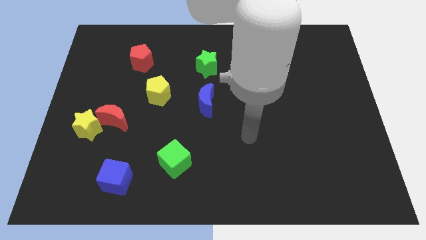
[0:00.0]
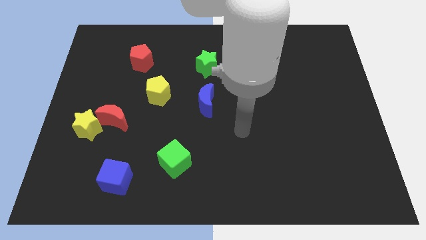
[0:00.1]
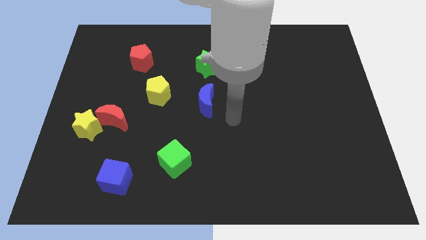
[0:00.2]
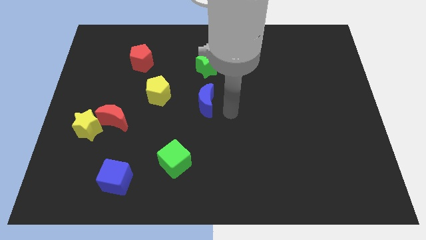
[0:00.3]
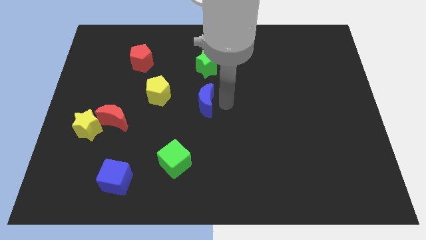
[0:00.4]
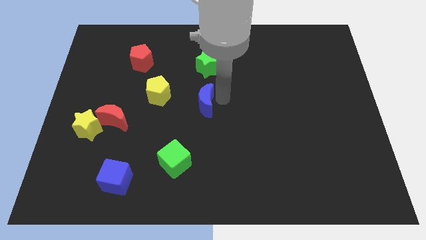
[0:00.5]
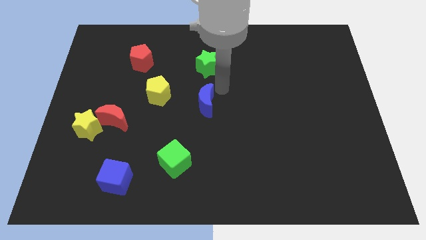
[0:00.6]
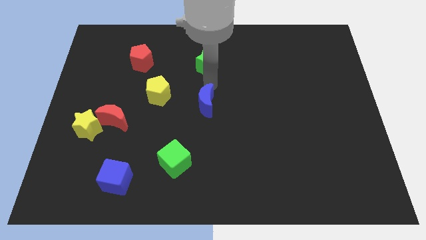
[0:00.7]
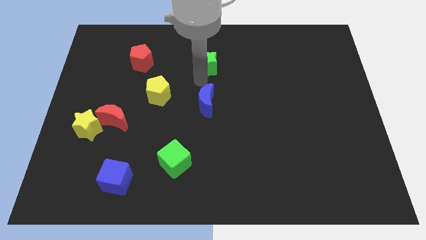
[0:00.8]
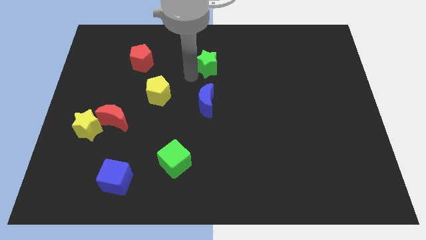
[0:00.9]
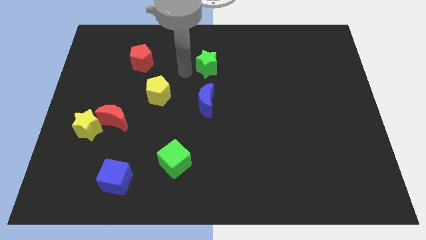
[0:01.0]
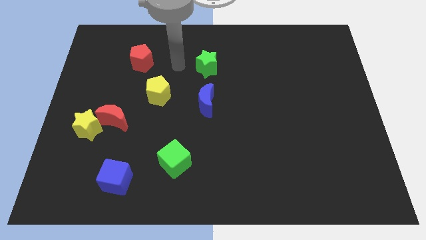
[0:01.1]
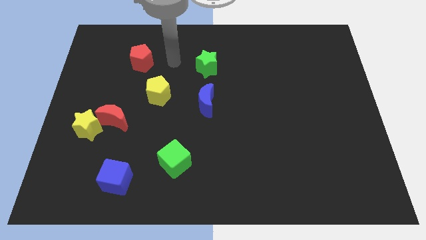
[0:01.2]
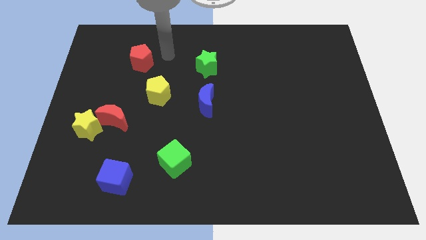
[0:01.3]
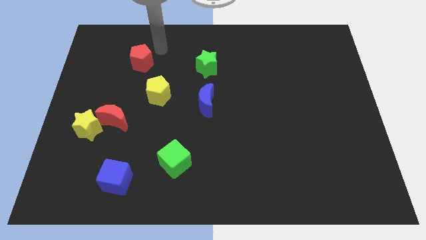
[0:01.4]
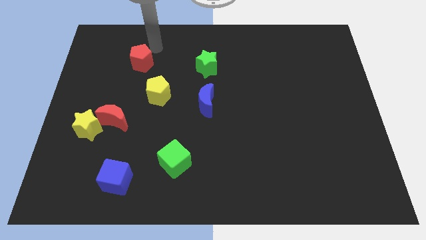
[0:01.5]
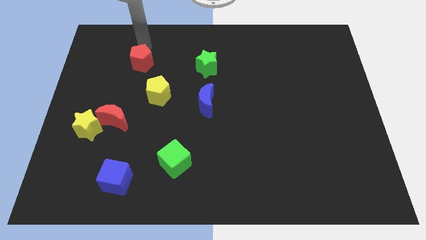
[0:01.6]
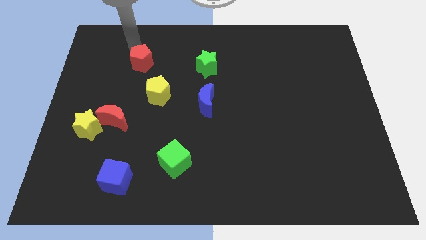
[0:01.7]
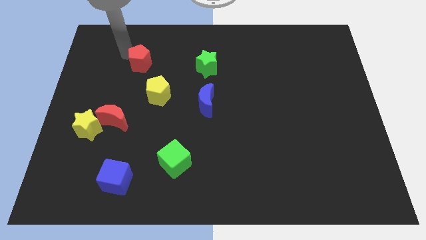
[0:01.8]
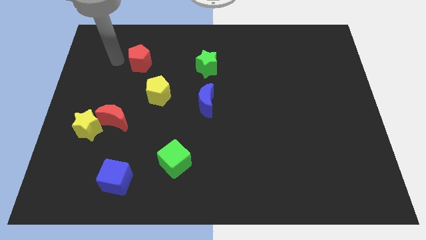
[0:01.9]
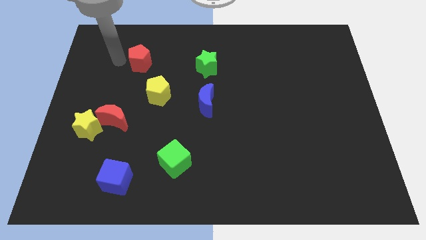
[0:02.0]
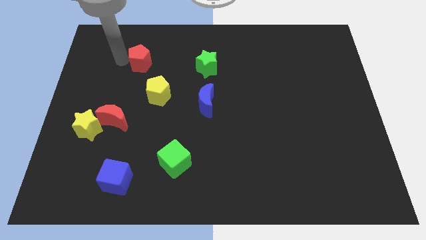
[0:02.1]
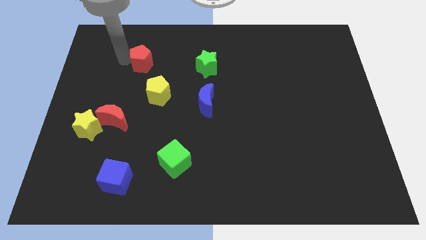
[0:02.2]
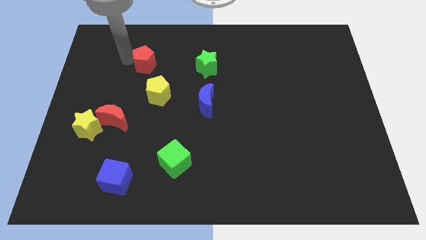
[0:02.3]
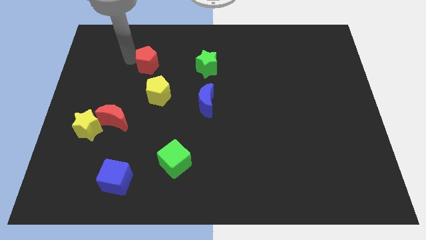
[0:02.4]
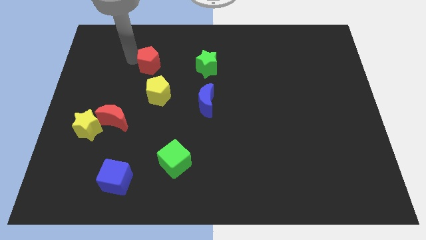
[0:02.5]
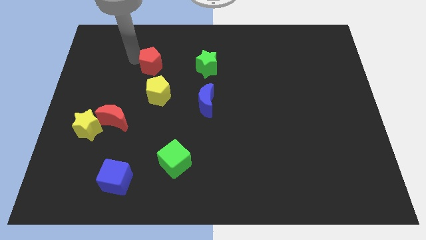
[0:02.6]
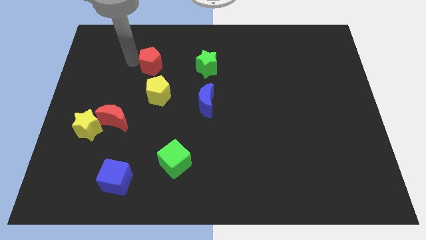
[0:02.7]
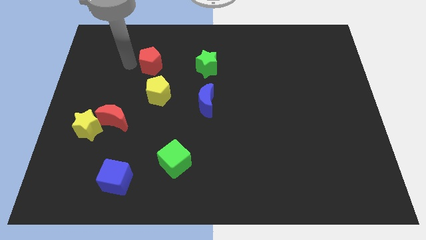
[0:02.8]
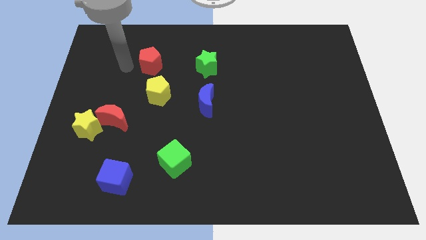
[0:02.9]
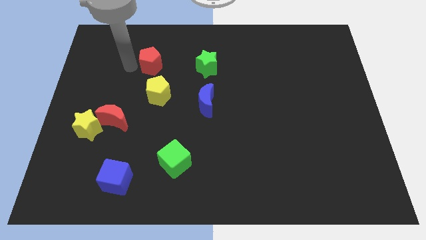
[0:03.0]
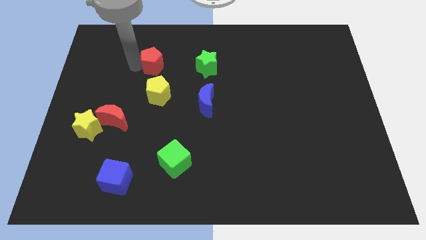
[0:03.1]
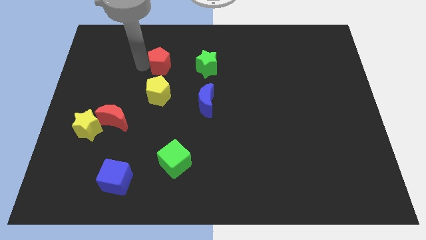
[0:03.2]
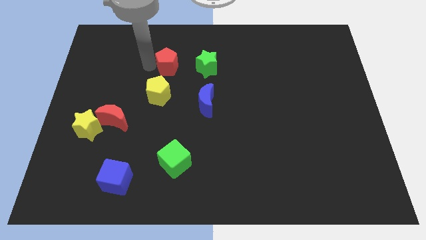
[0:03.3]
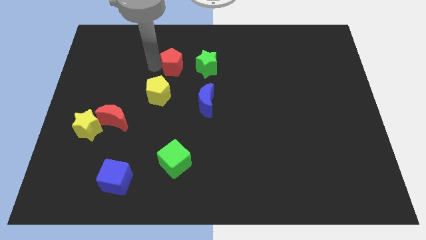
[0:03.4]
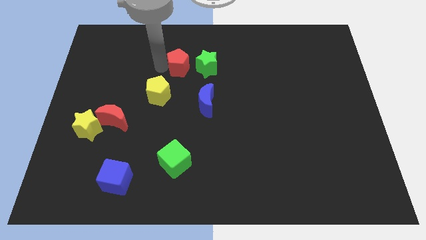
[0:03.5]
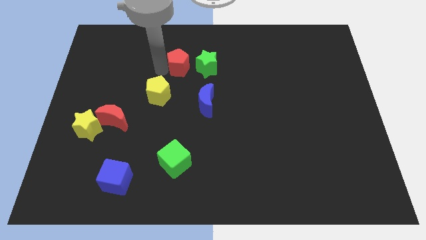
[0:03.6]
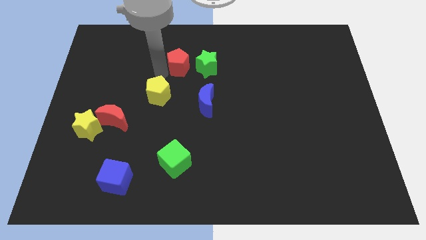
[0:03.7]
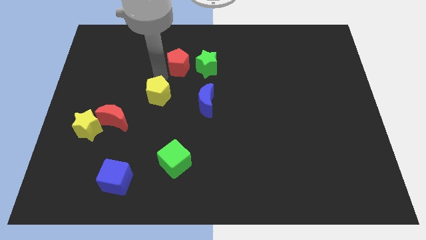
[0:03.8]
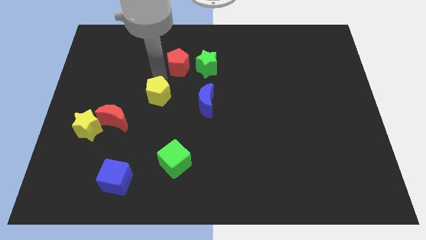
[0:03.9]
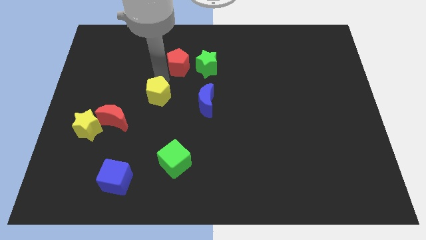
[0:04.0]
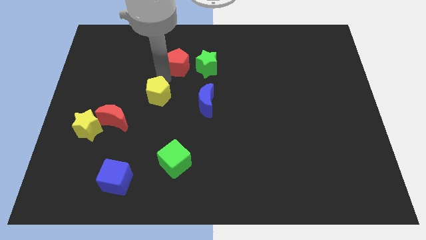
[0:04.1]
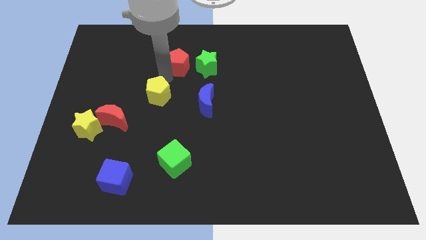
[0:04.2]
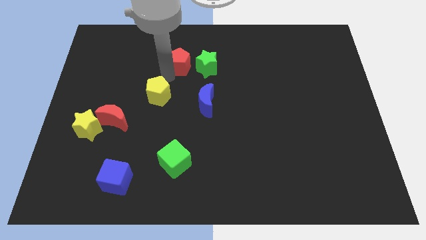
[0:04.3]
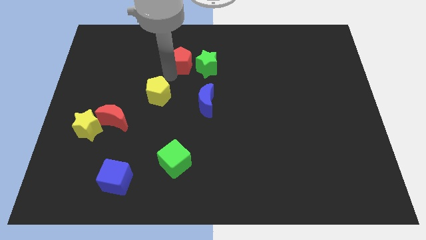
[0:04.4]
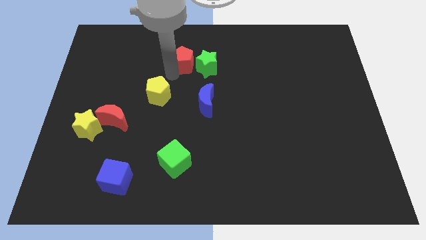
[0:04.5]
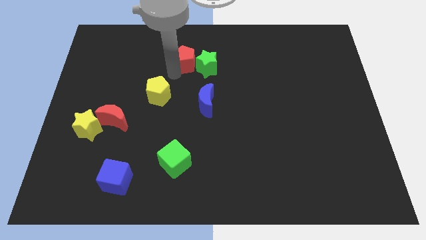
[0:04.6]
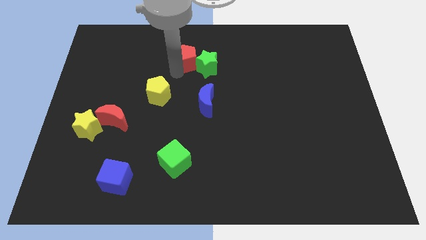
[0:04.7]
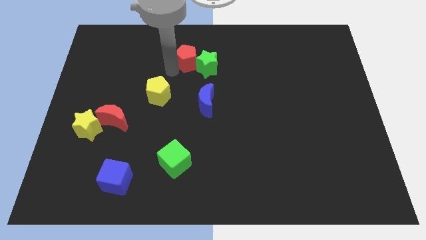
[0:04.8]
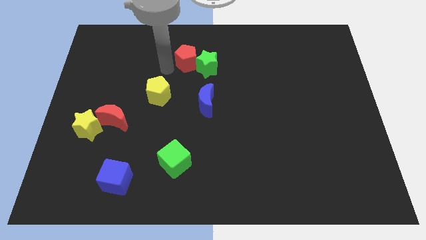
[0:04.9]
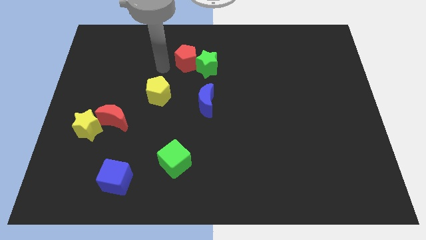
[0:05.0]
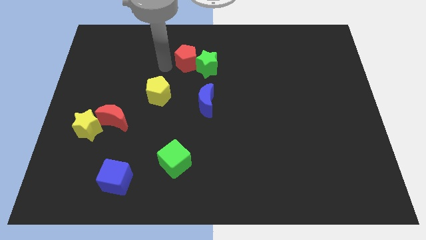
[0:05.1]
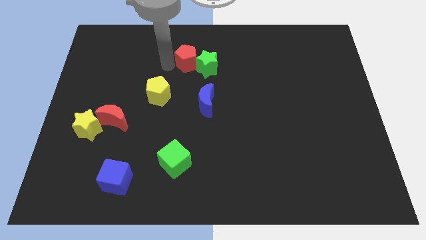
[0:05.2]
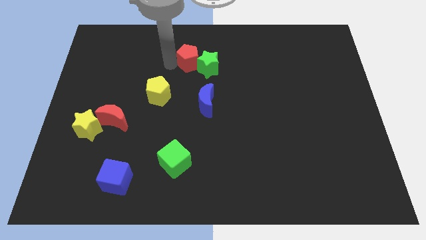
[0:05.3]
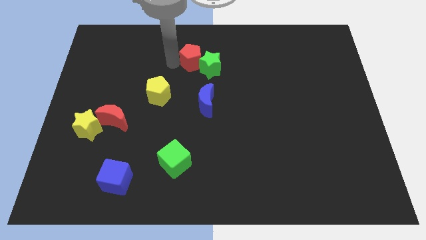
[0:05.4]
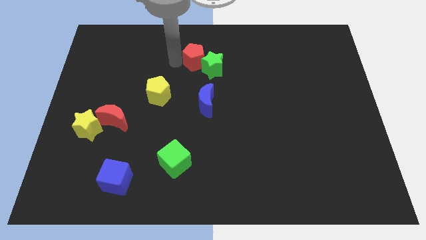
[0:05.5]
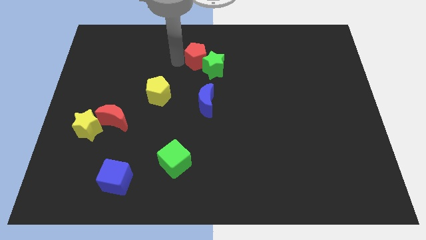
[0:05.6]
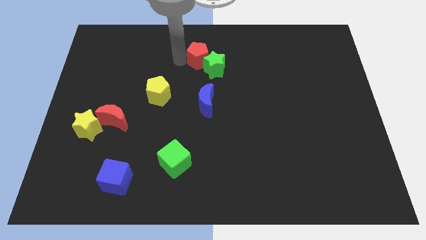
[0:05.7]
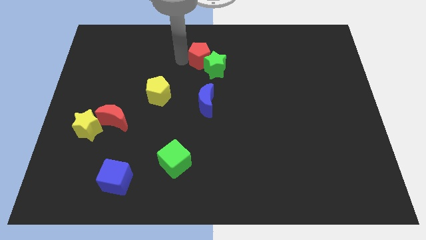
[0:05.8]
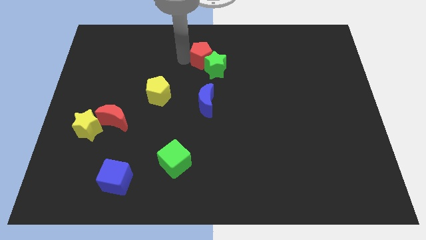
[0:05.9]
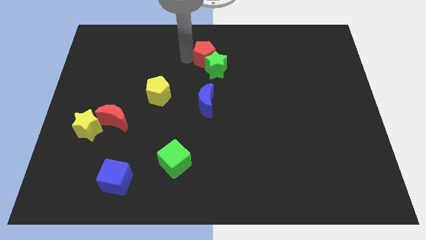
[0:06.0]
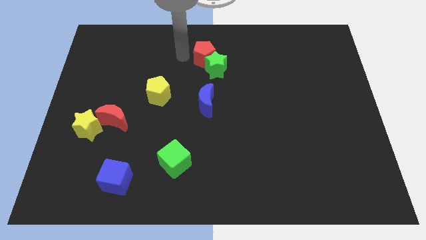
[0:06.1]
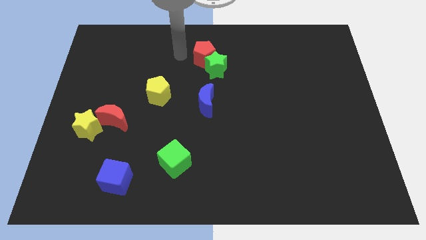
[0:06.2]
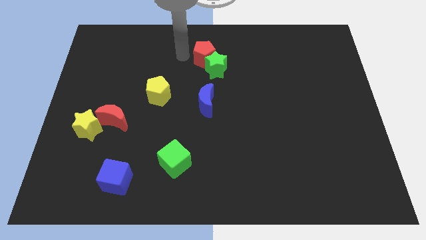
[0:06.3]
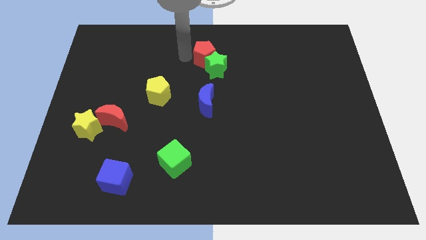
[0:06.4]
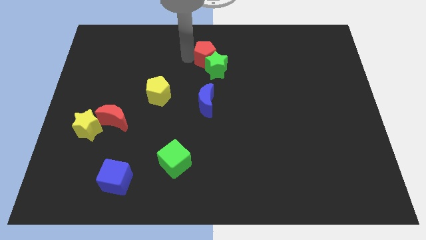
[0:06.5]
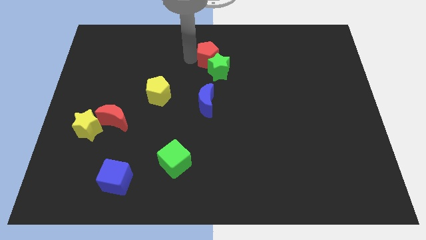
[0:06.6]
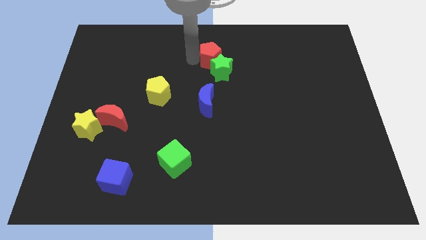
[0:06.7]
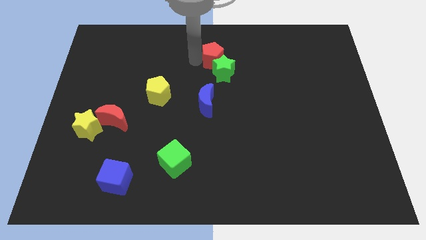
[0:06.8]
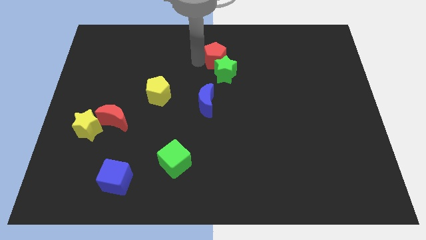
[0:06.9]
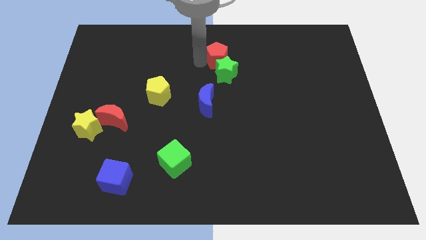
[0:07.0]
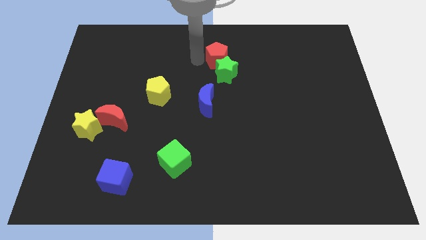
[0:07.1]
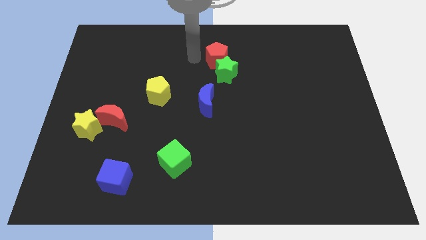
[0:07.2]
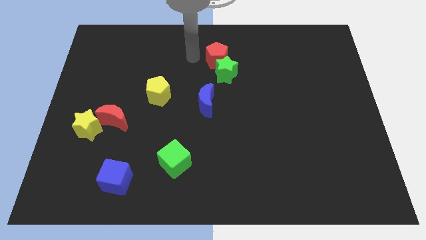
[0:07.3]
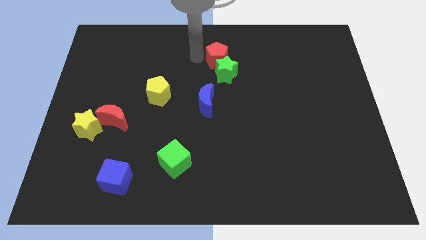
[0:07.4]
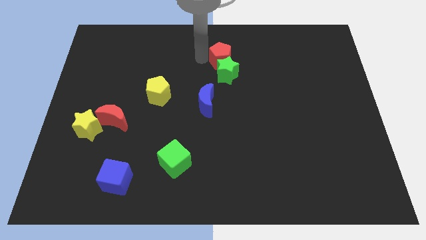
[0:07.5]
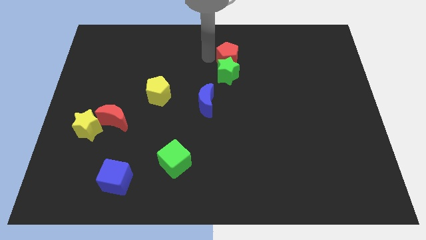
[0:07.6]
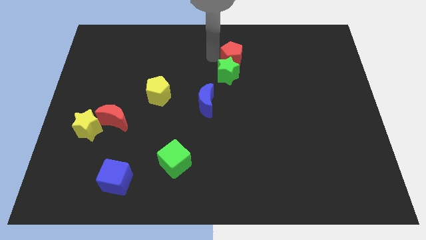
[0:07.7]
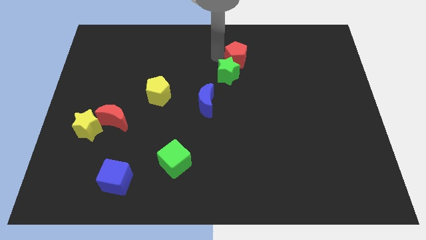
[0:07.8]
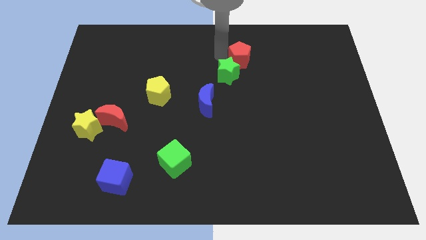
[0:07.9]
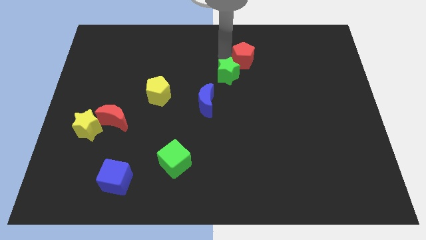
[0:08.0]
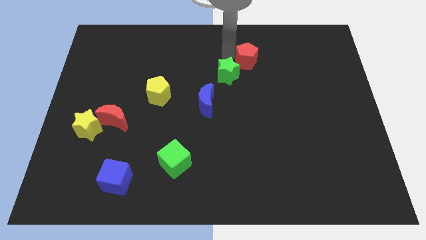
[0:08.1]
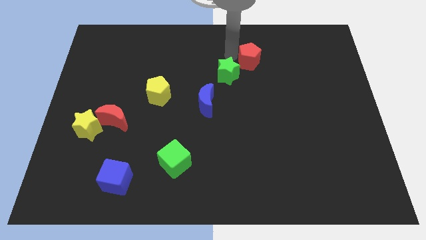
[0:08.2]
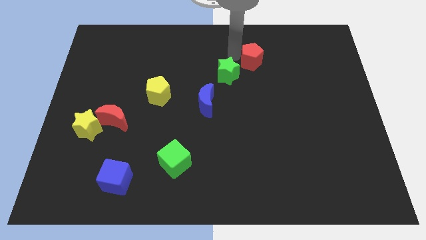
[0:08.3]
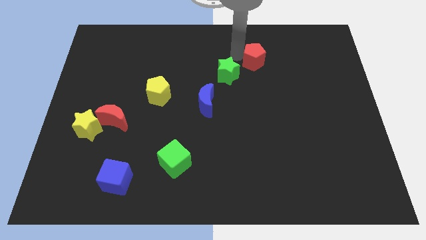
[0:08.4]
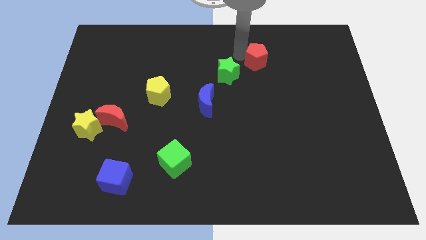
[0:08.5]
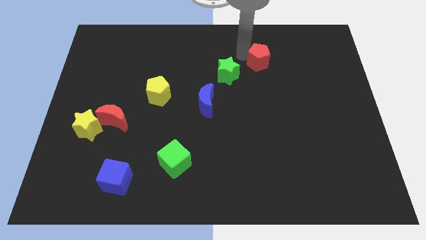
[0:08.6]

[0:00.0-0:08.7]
move the red pentagon just right of the green star
